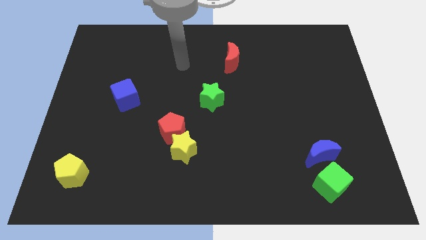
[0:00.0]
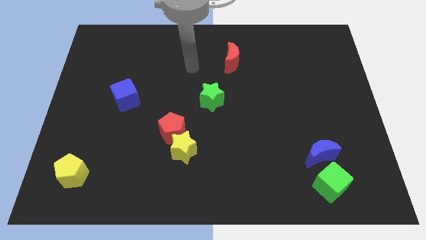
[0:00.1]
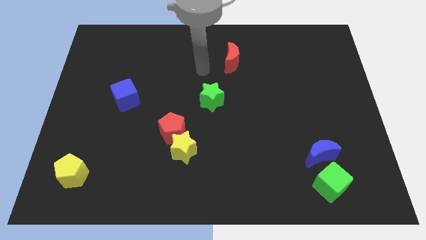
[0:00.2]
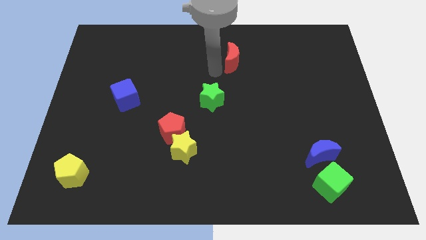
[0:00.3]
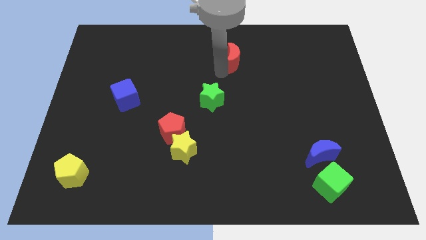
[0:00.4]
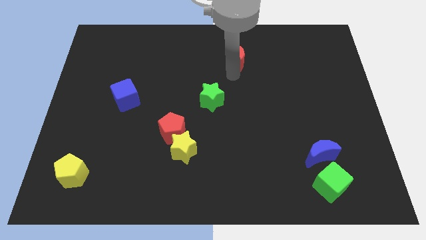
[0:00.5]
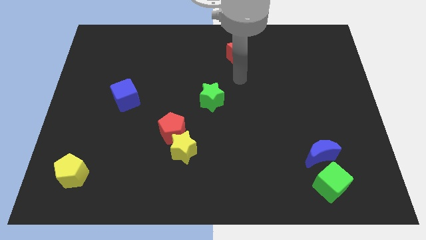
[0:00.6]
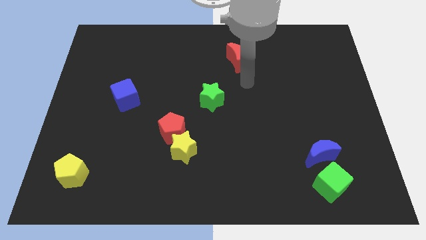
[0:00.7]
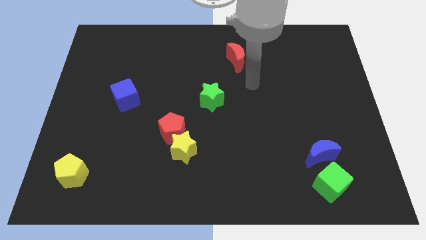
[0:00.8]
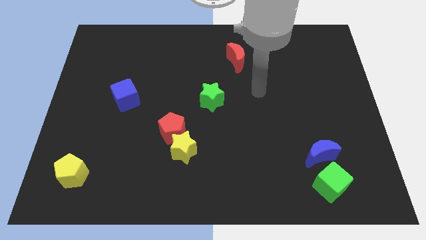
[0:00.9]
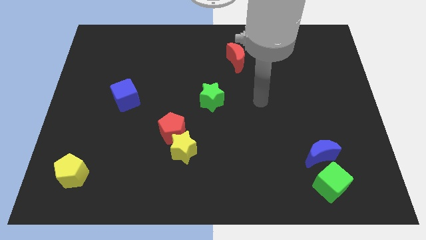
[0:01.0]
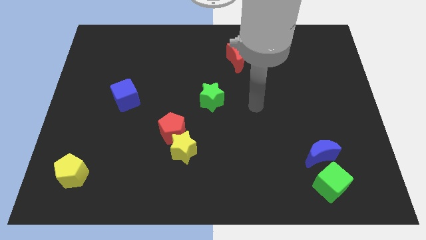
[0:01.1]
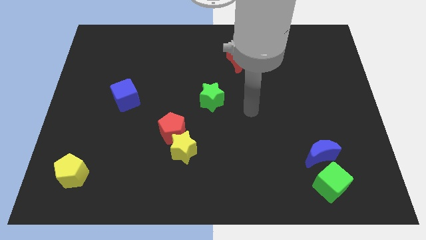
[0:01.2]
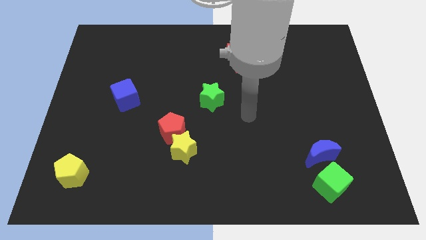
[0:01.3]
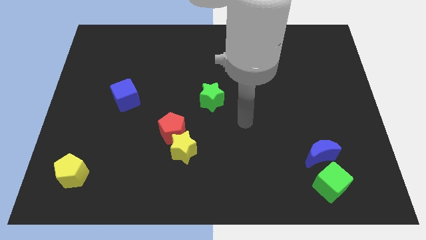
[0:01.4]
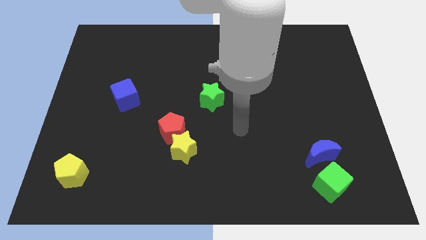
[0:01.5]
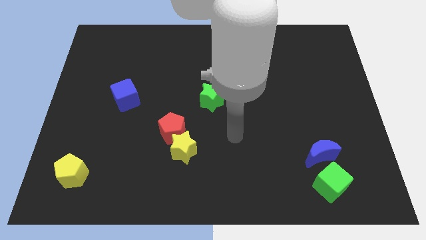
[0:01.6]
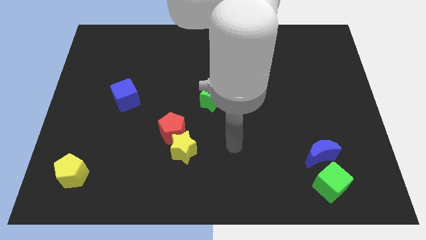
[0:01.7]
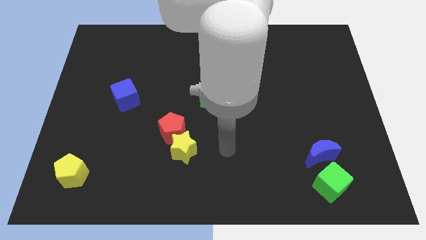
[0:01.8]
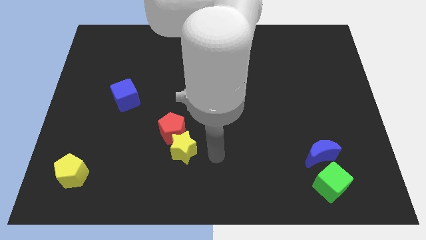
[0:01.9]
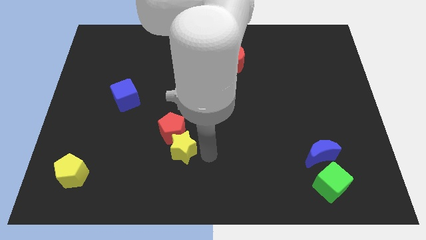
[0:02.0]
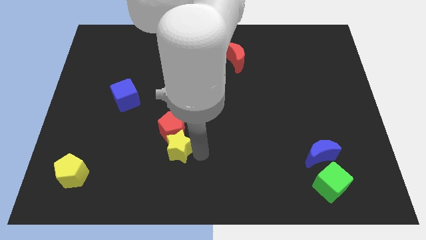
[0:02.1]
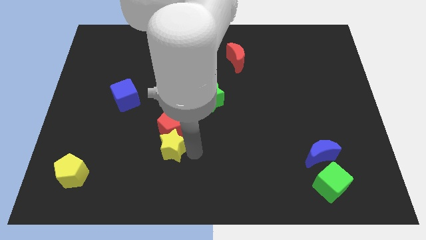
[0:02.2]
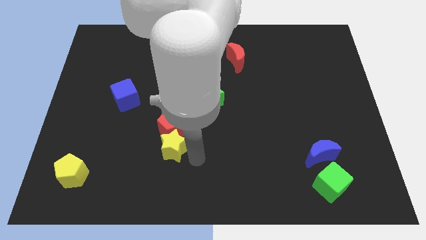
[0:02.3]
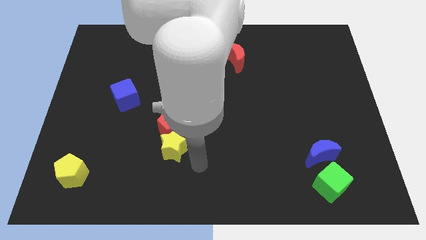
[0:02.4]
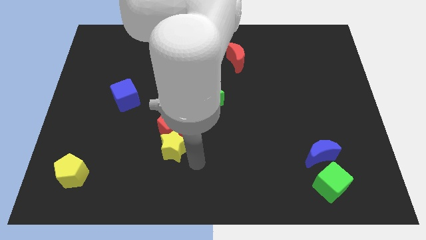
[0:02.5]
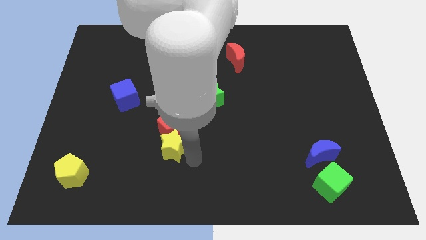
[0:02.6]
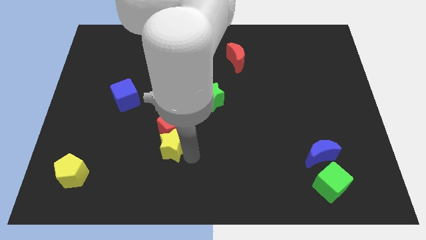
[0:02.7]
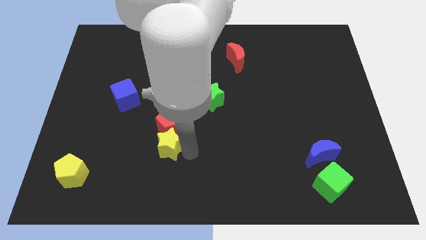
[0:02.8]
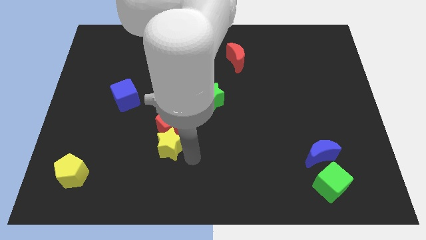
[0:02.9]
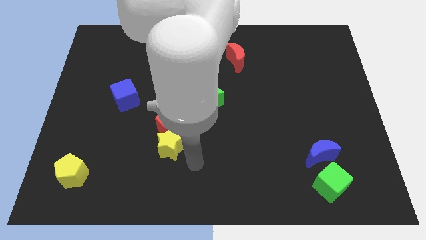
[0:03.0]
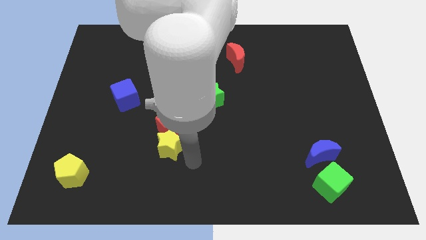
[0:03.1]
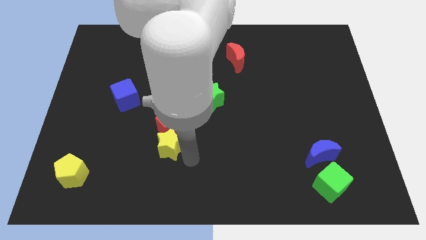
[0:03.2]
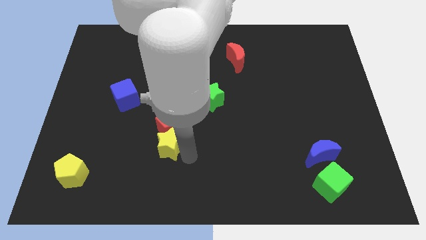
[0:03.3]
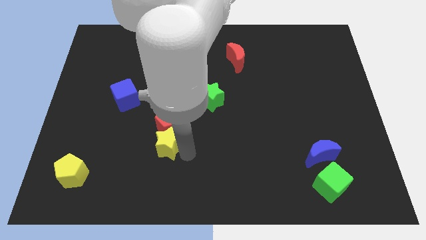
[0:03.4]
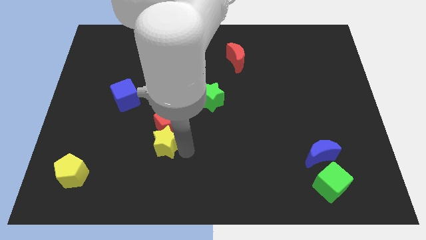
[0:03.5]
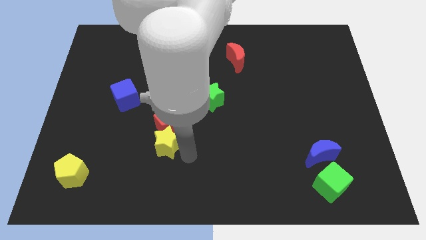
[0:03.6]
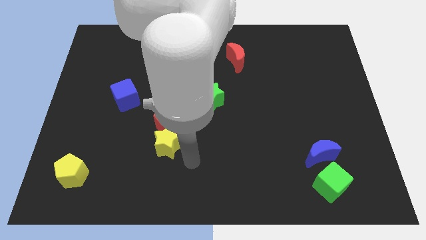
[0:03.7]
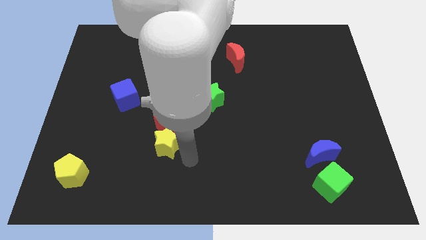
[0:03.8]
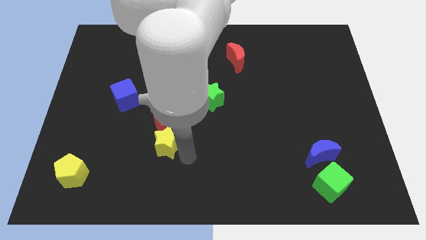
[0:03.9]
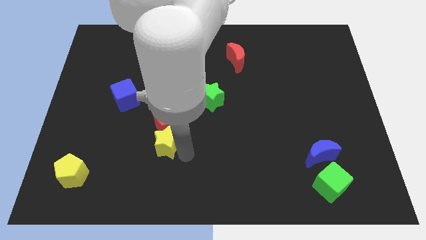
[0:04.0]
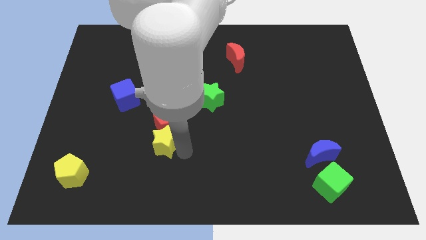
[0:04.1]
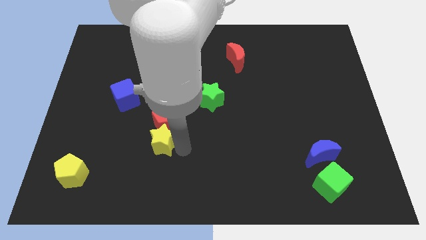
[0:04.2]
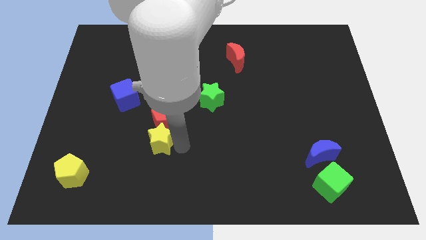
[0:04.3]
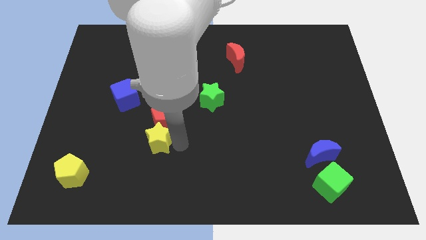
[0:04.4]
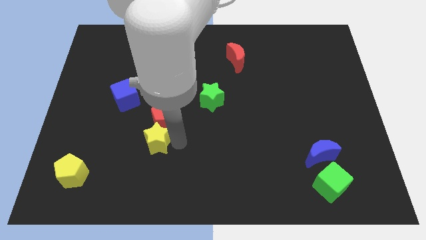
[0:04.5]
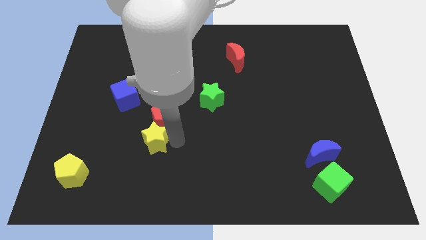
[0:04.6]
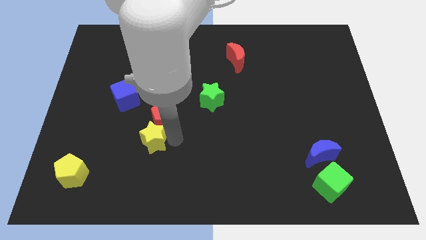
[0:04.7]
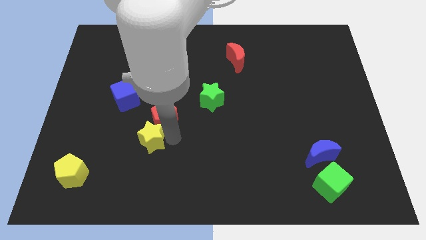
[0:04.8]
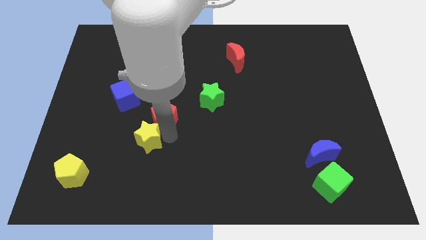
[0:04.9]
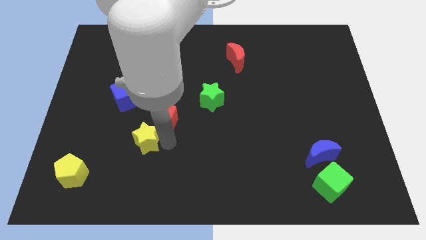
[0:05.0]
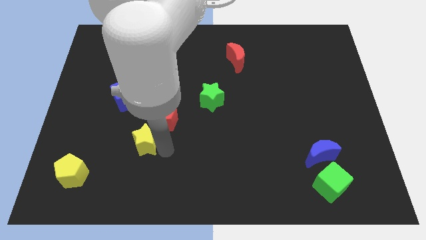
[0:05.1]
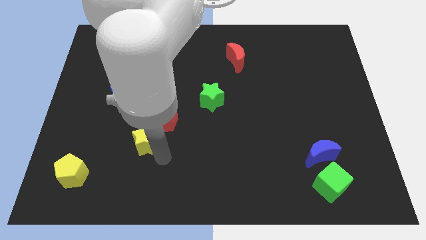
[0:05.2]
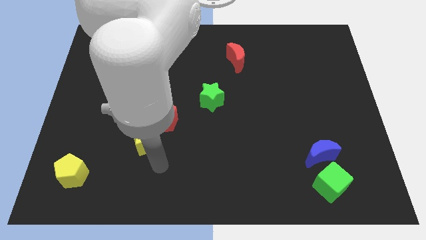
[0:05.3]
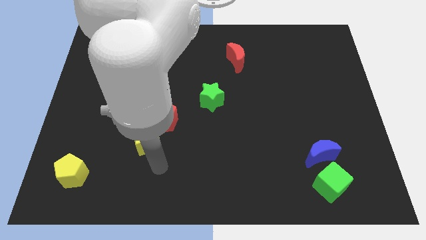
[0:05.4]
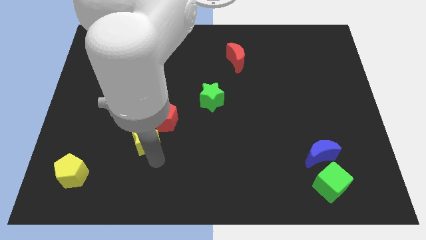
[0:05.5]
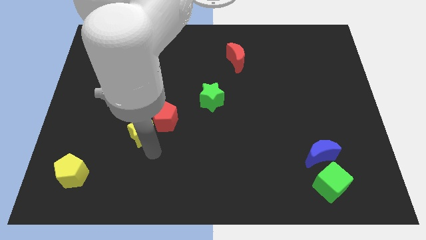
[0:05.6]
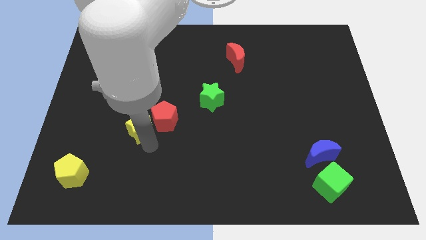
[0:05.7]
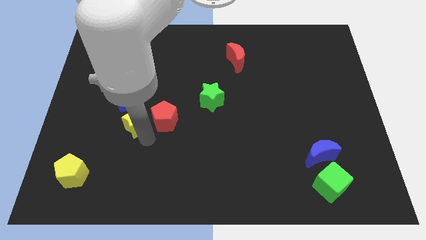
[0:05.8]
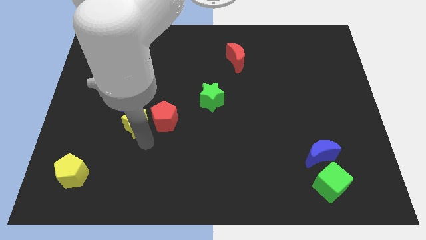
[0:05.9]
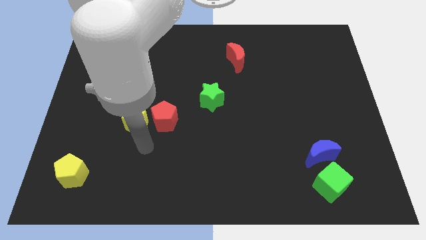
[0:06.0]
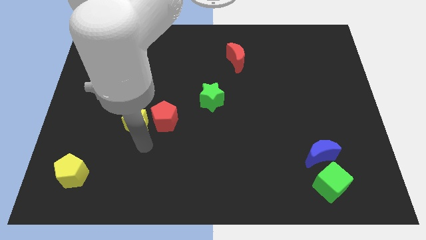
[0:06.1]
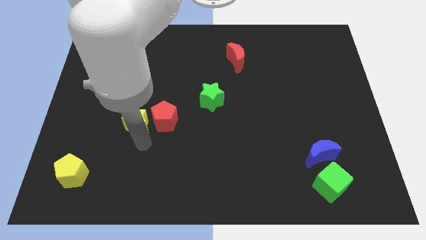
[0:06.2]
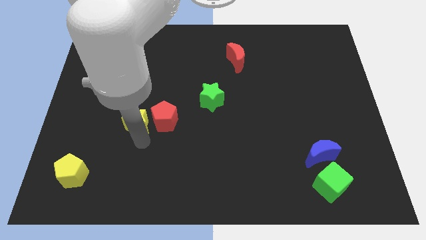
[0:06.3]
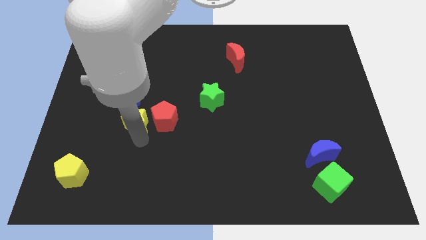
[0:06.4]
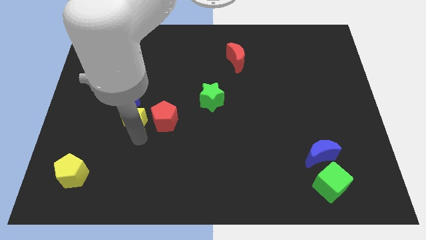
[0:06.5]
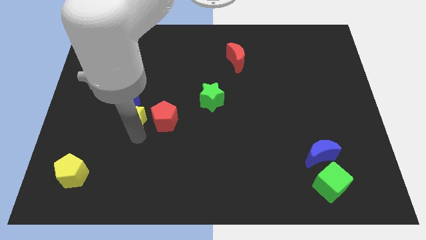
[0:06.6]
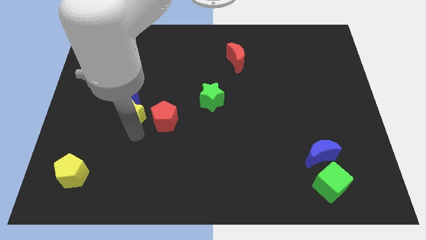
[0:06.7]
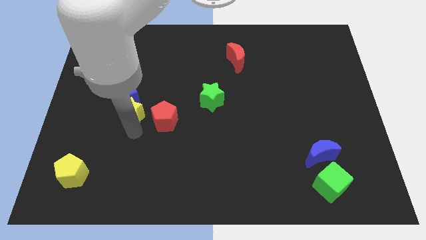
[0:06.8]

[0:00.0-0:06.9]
put the yellow star to the blue cube

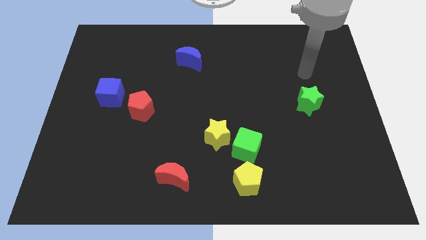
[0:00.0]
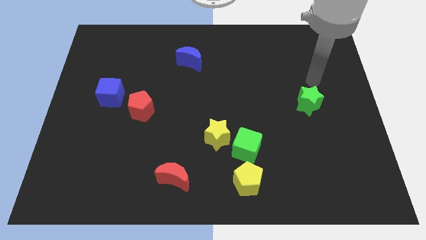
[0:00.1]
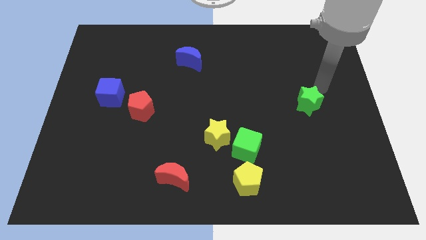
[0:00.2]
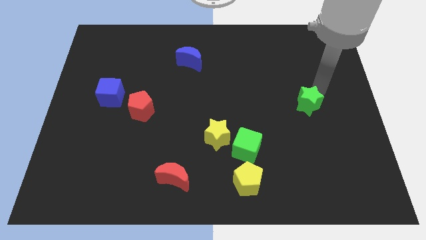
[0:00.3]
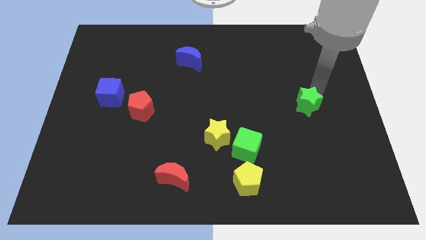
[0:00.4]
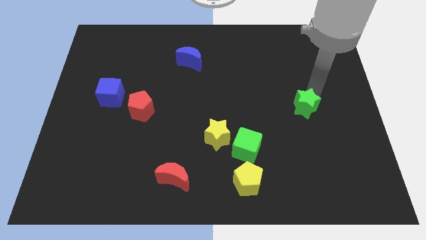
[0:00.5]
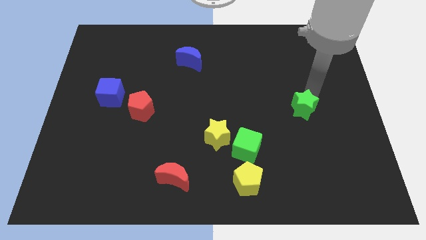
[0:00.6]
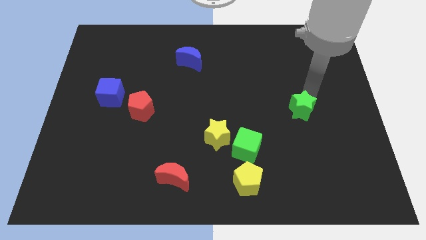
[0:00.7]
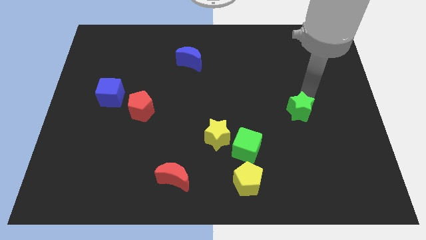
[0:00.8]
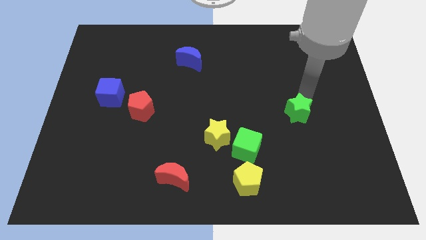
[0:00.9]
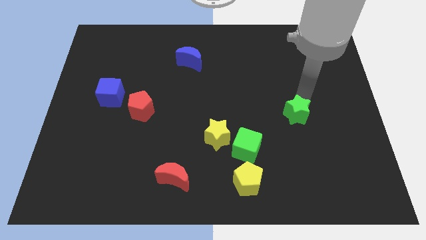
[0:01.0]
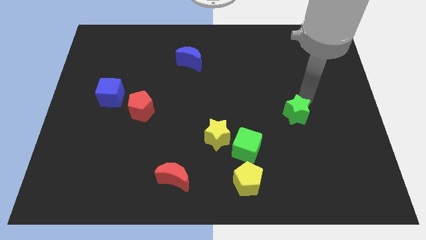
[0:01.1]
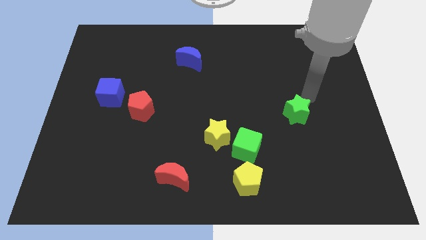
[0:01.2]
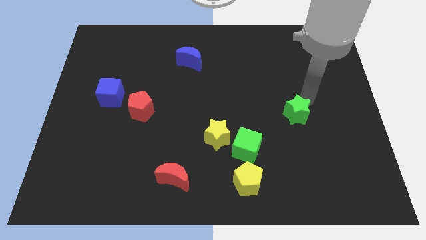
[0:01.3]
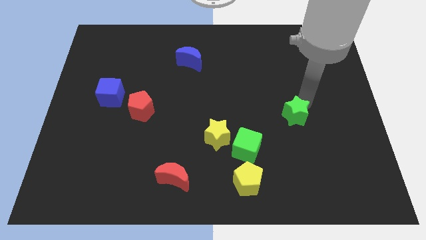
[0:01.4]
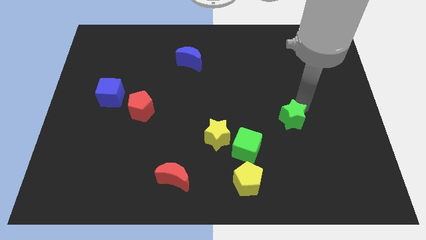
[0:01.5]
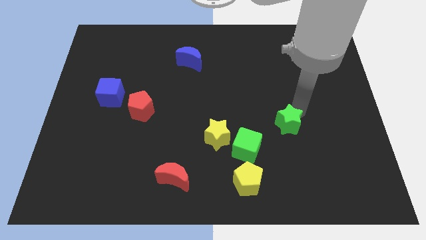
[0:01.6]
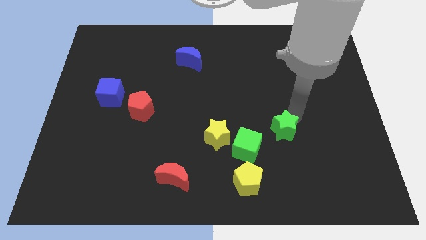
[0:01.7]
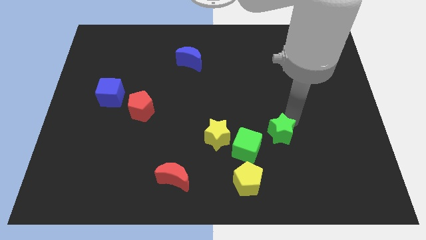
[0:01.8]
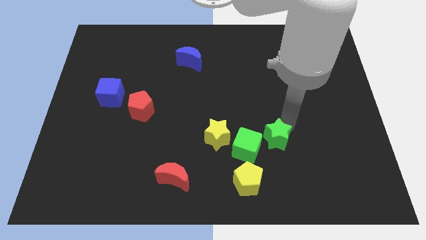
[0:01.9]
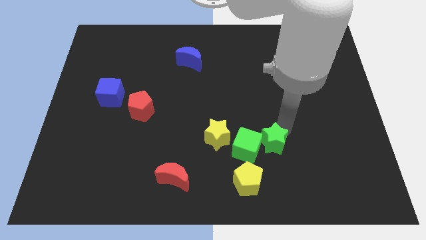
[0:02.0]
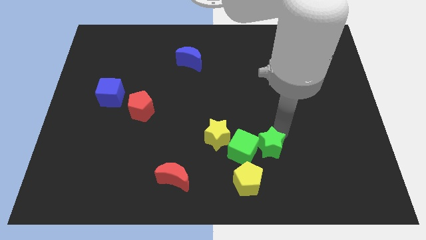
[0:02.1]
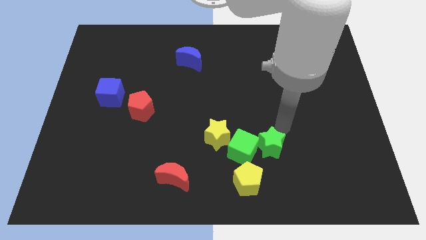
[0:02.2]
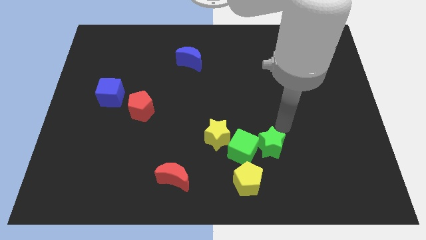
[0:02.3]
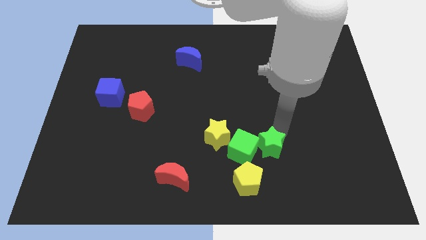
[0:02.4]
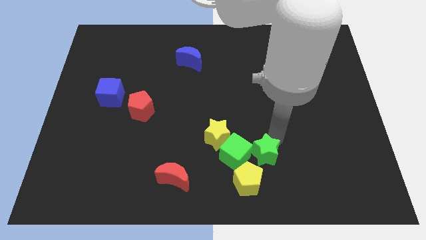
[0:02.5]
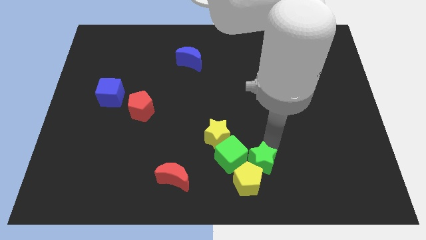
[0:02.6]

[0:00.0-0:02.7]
put the green star to the yellow pentagon
